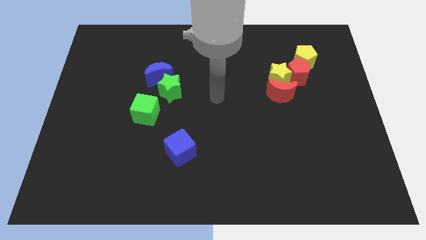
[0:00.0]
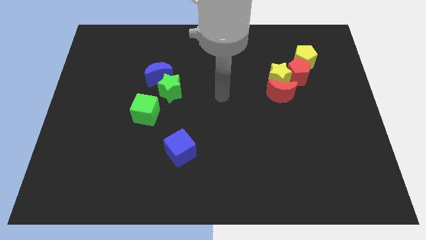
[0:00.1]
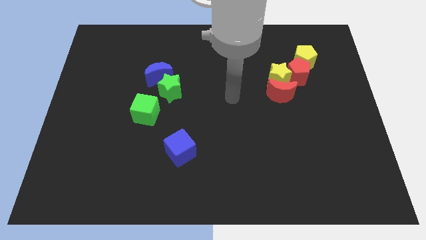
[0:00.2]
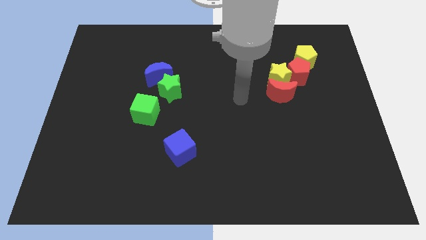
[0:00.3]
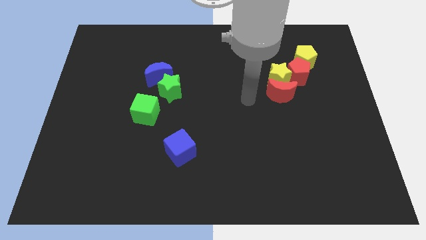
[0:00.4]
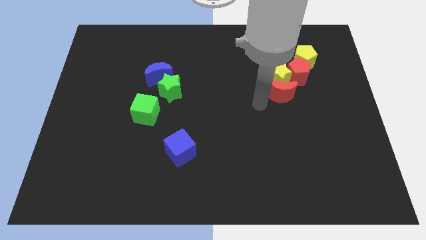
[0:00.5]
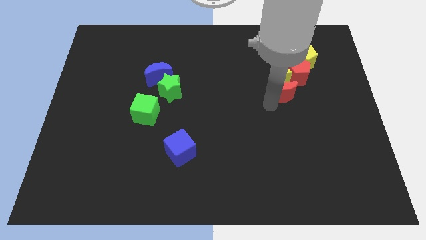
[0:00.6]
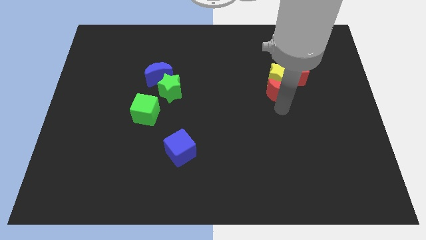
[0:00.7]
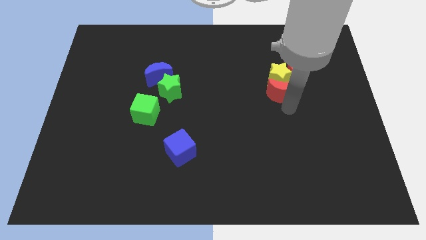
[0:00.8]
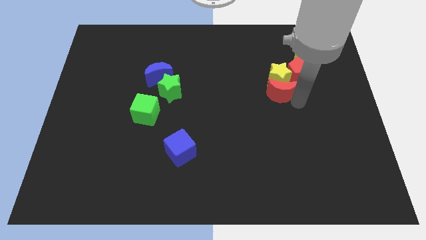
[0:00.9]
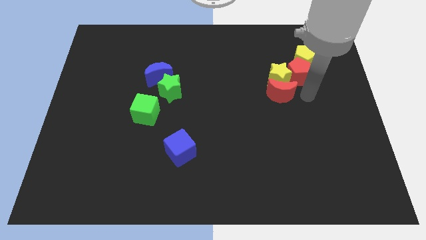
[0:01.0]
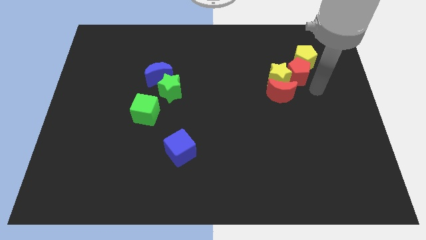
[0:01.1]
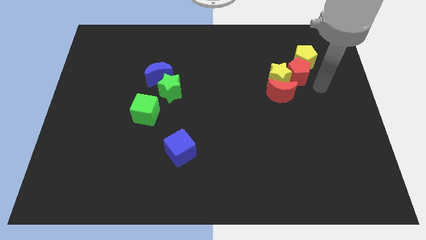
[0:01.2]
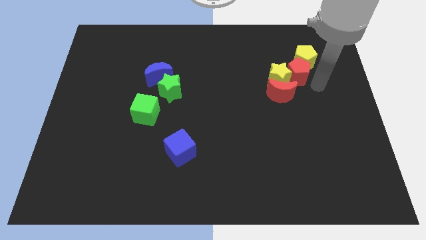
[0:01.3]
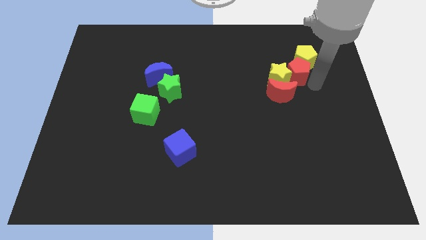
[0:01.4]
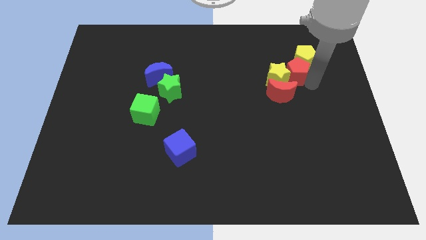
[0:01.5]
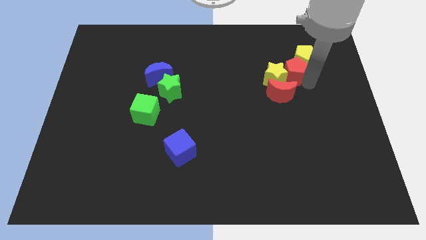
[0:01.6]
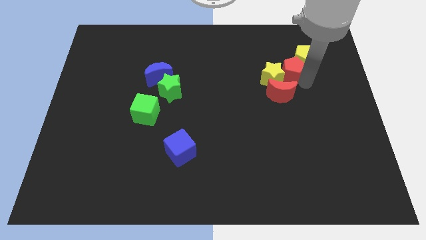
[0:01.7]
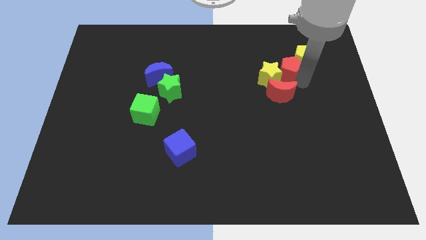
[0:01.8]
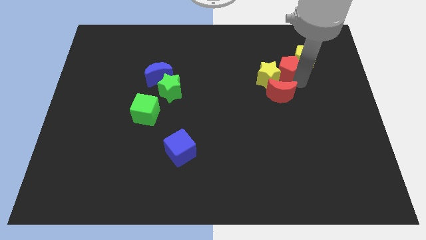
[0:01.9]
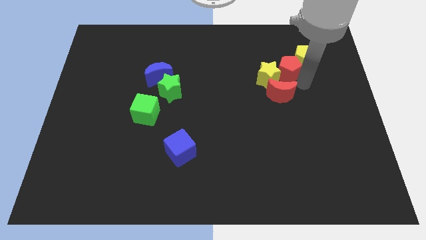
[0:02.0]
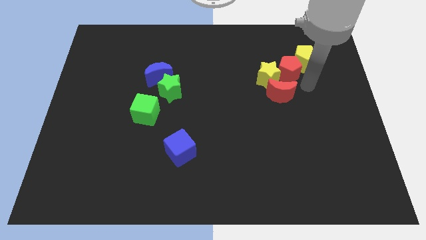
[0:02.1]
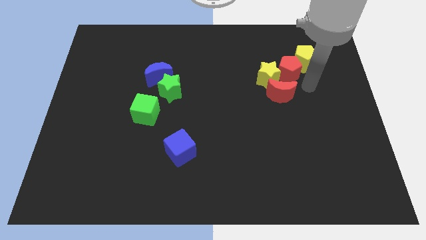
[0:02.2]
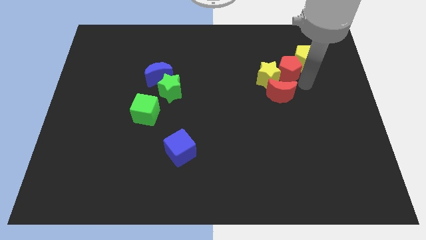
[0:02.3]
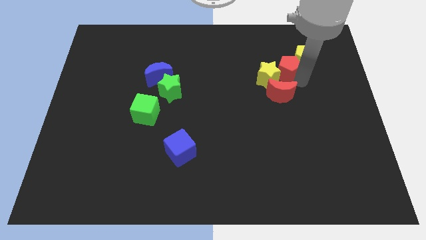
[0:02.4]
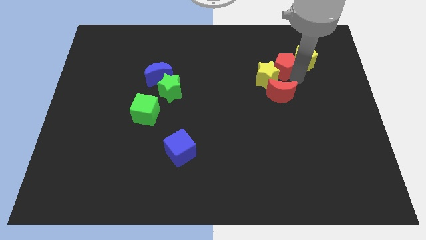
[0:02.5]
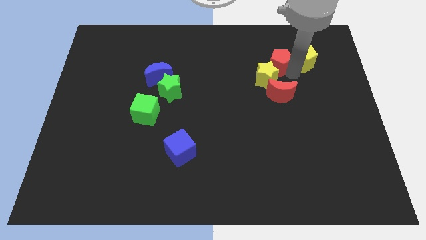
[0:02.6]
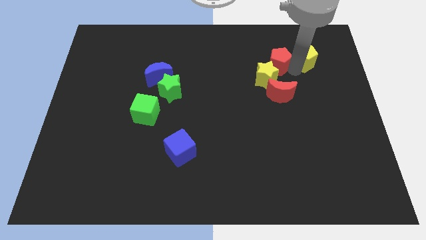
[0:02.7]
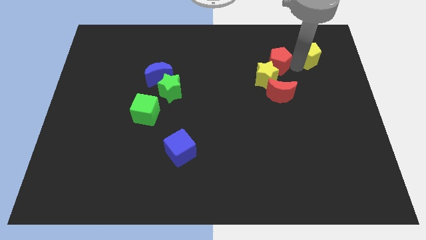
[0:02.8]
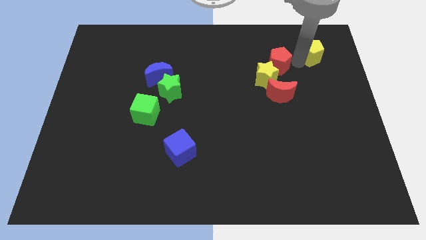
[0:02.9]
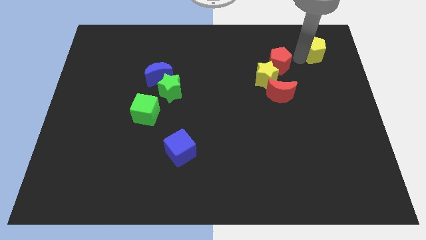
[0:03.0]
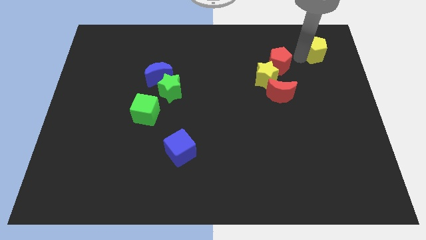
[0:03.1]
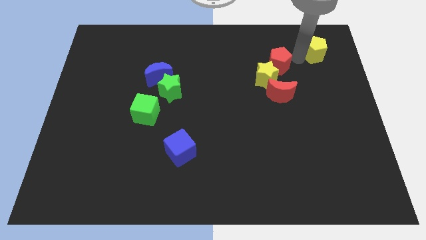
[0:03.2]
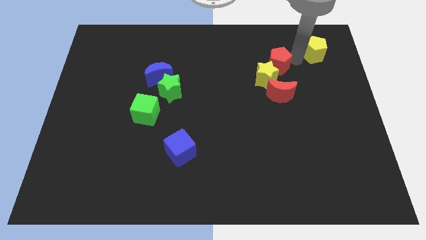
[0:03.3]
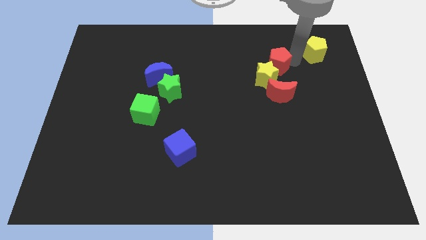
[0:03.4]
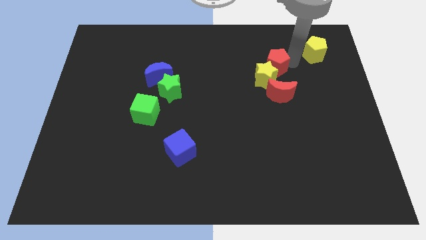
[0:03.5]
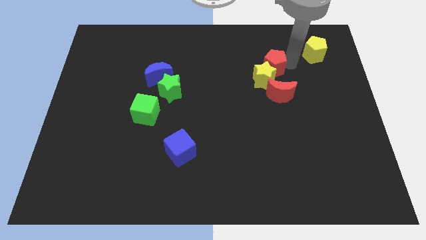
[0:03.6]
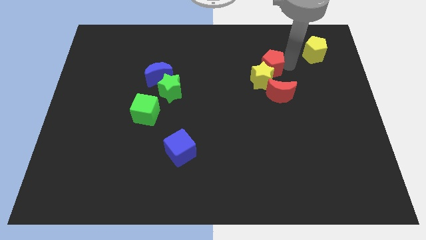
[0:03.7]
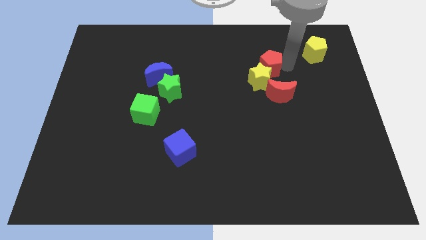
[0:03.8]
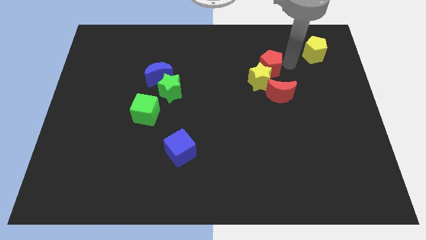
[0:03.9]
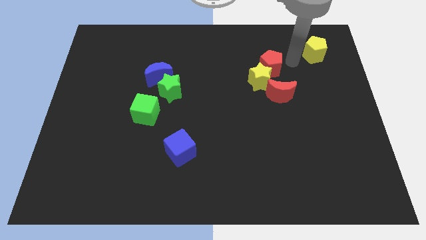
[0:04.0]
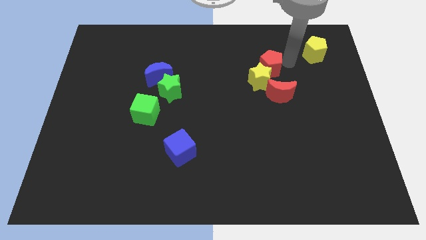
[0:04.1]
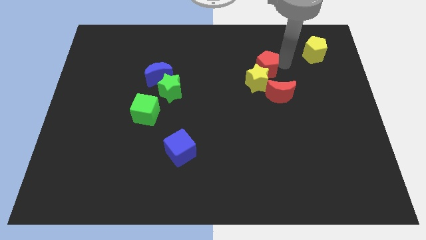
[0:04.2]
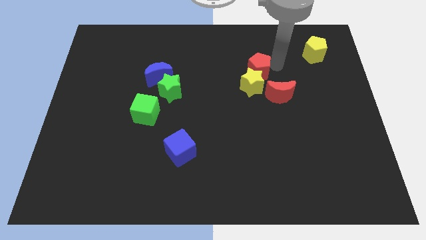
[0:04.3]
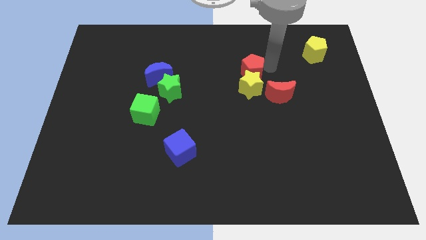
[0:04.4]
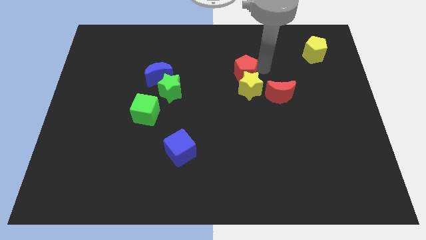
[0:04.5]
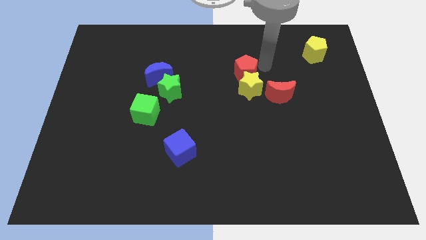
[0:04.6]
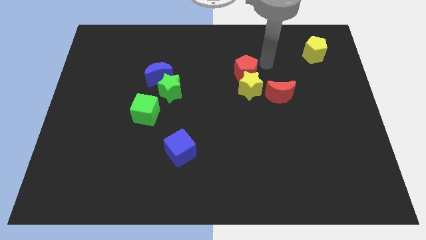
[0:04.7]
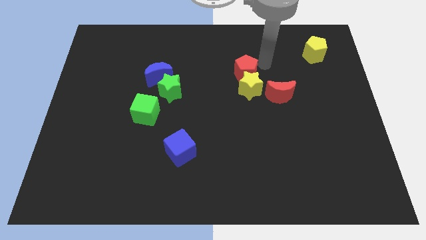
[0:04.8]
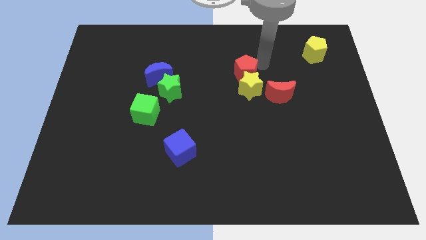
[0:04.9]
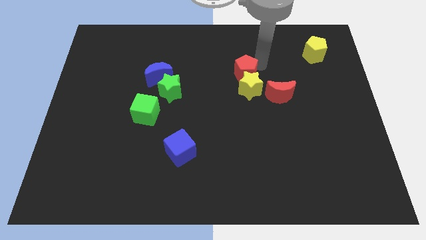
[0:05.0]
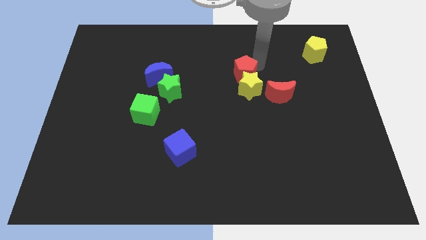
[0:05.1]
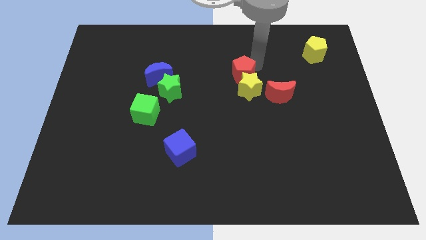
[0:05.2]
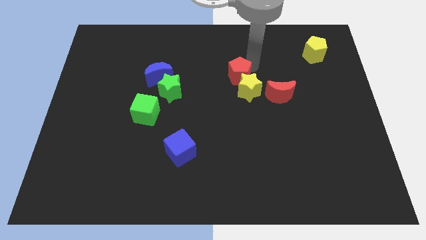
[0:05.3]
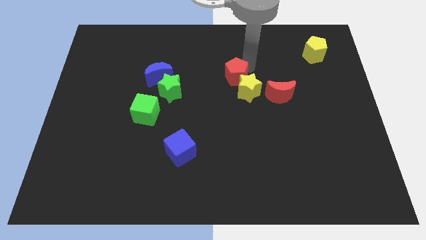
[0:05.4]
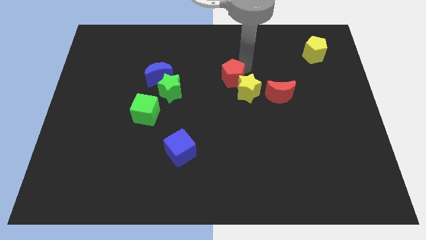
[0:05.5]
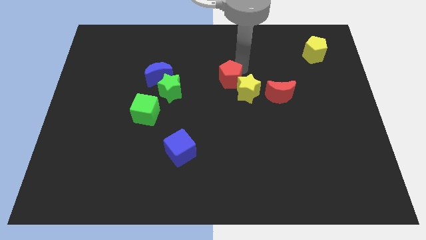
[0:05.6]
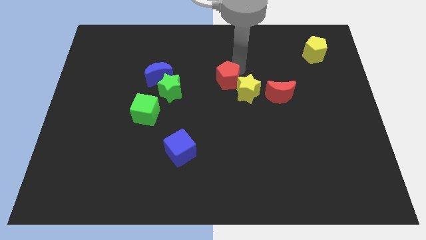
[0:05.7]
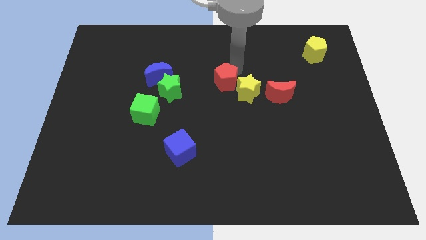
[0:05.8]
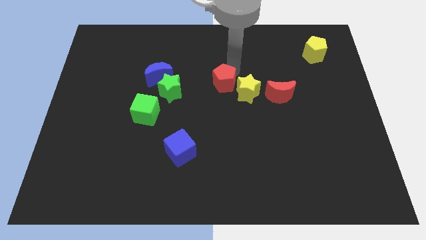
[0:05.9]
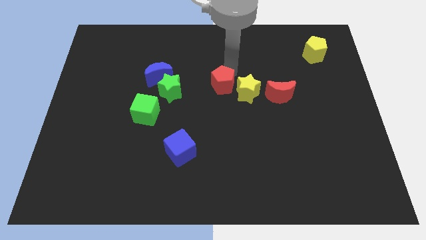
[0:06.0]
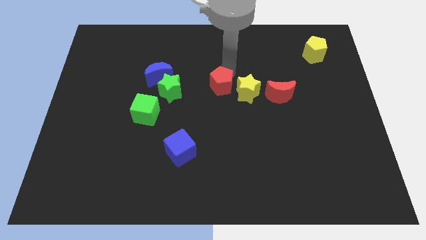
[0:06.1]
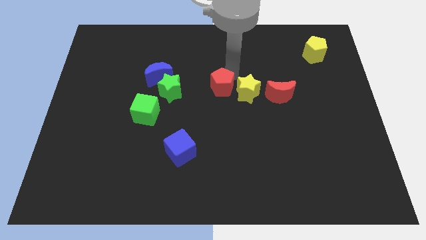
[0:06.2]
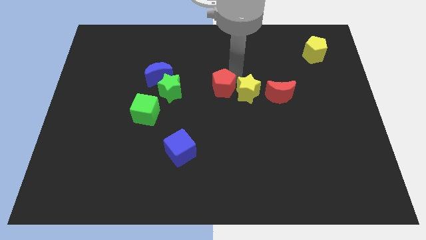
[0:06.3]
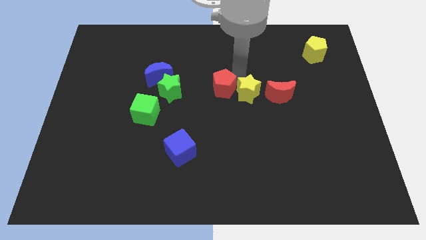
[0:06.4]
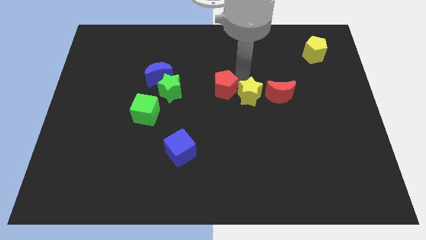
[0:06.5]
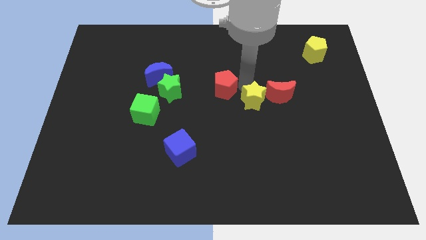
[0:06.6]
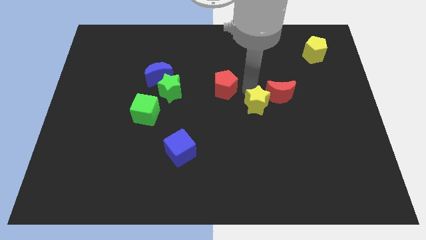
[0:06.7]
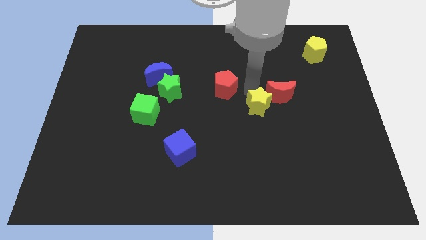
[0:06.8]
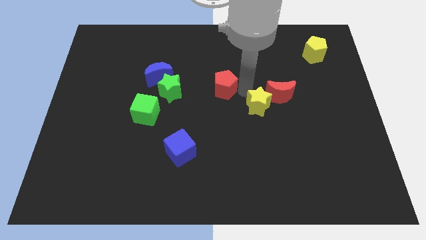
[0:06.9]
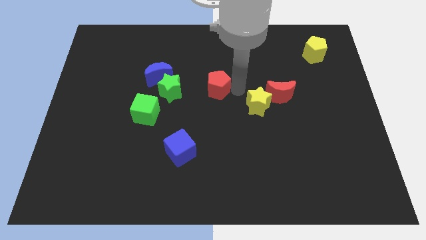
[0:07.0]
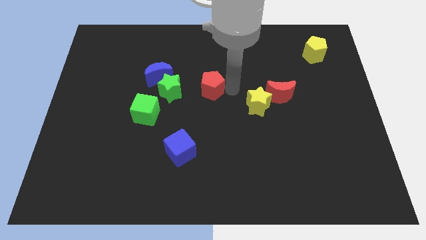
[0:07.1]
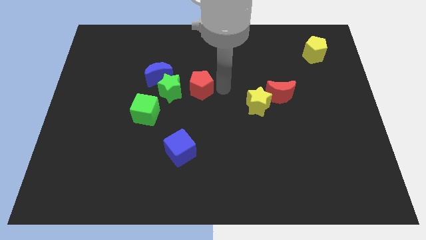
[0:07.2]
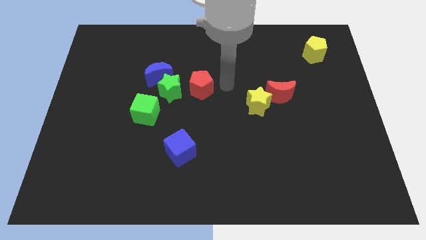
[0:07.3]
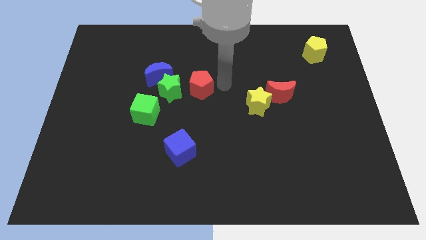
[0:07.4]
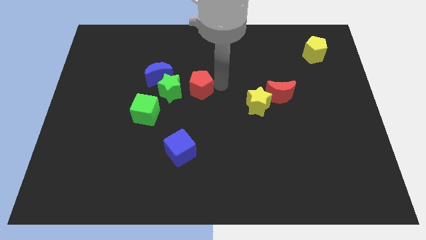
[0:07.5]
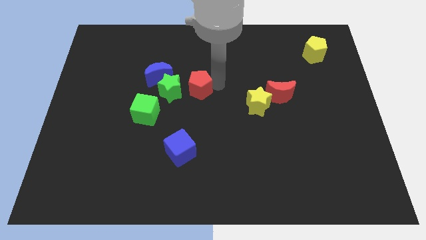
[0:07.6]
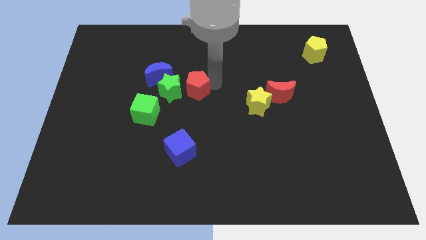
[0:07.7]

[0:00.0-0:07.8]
slide the red pentagon close to the green star
